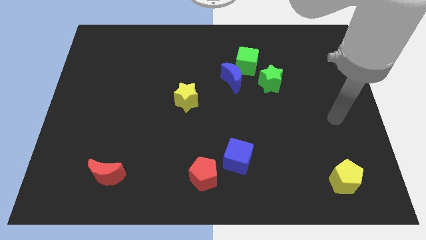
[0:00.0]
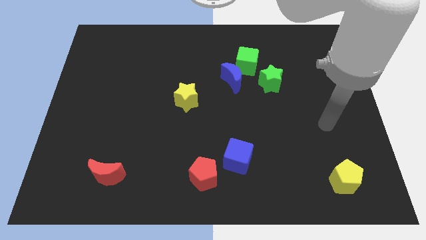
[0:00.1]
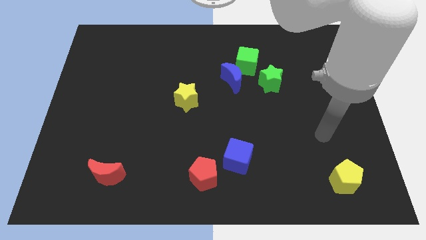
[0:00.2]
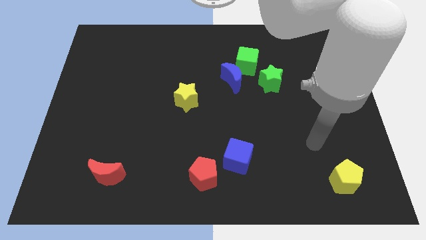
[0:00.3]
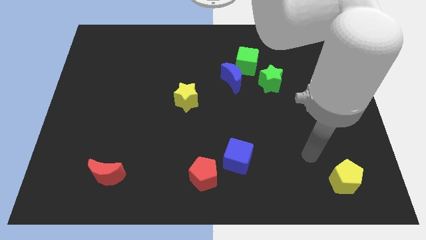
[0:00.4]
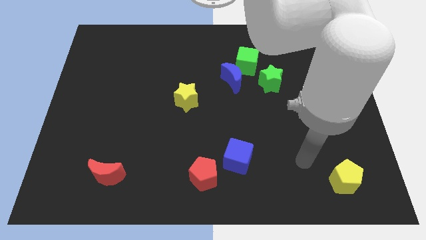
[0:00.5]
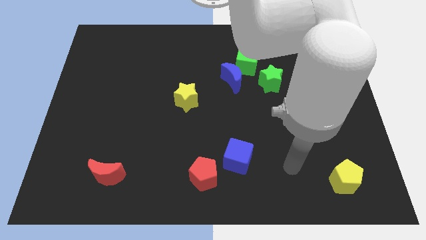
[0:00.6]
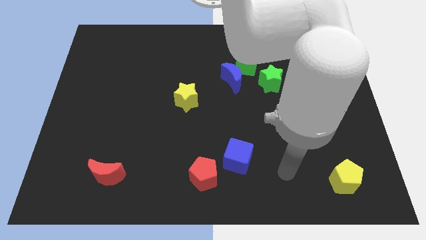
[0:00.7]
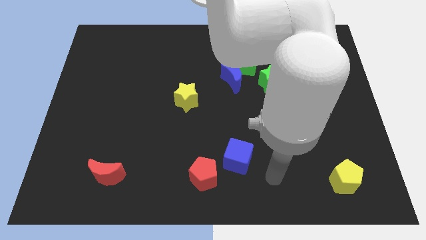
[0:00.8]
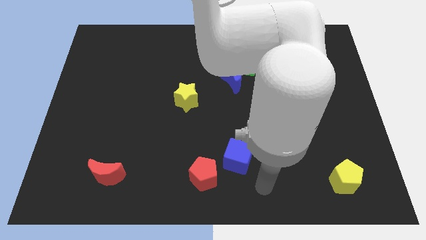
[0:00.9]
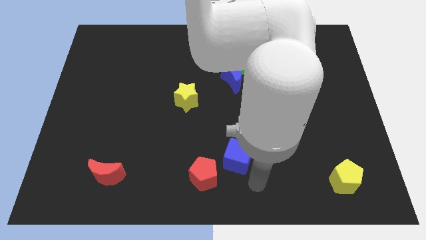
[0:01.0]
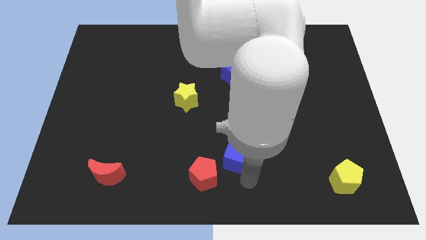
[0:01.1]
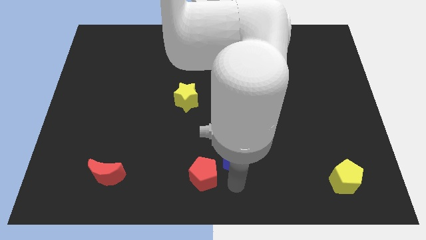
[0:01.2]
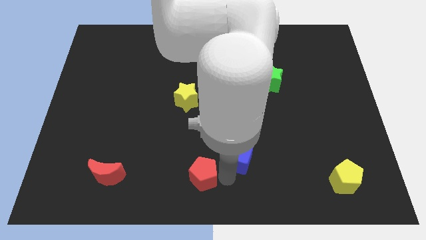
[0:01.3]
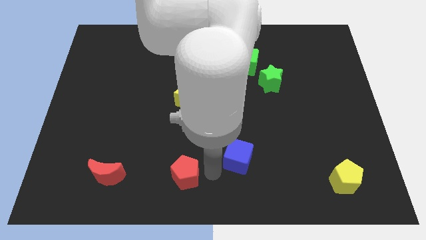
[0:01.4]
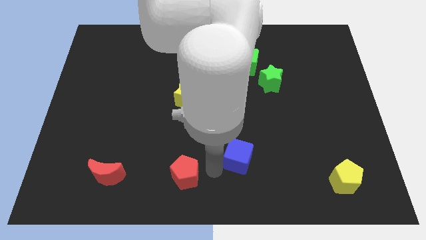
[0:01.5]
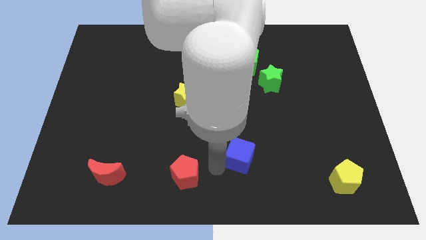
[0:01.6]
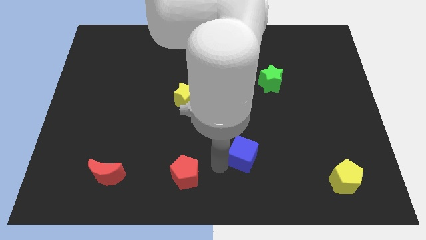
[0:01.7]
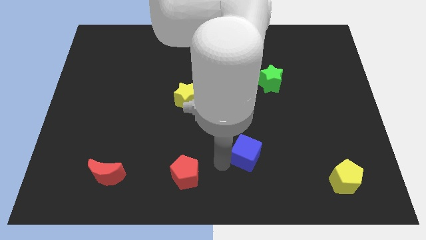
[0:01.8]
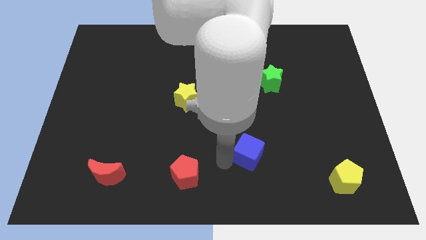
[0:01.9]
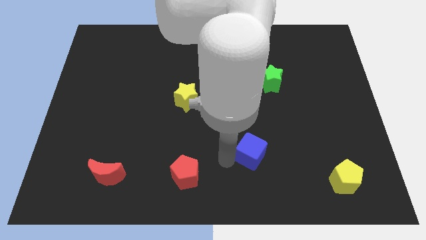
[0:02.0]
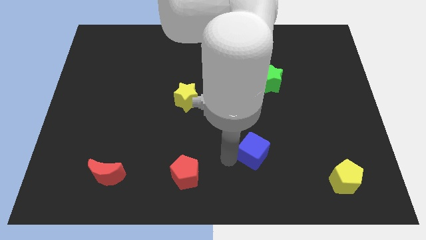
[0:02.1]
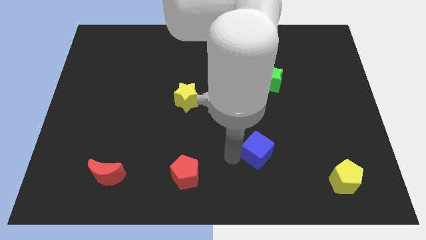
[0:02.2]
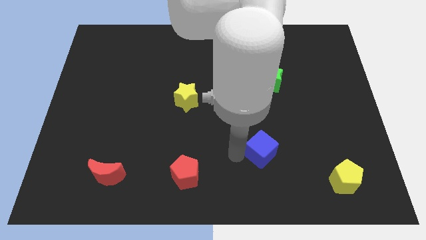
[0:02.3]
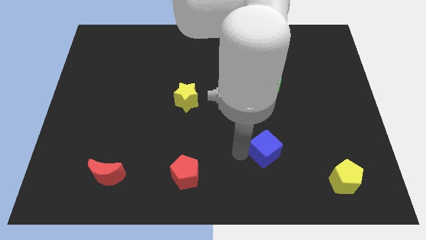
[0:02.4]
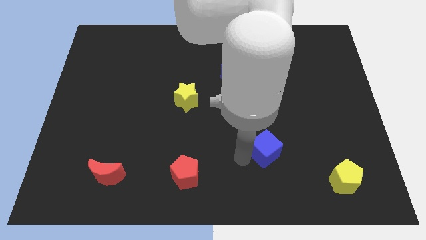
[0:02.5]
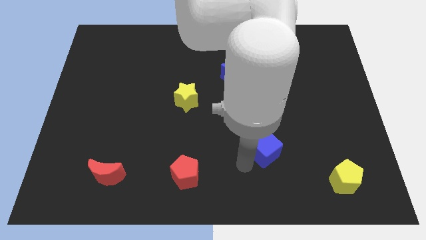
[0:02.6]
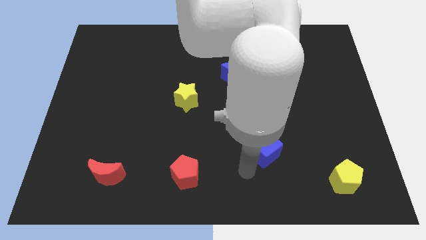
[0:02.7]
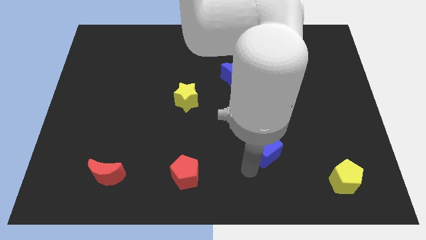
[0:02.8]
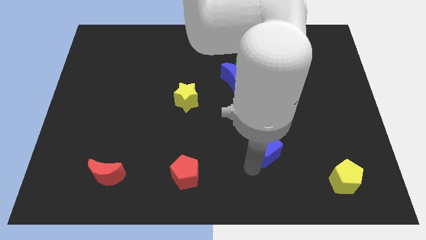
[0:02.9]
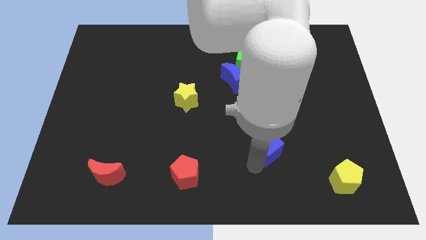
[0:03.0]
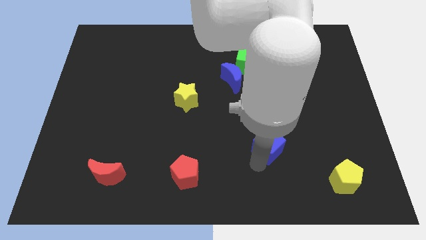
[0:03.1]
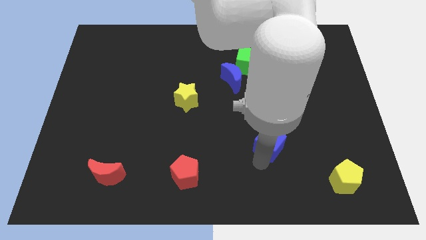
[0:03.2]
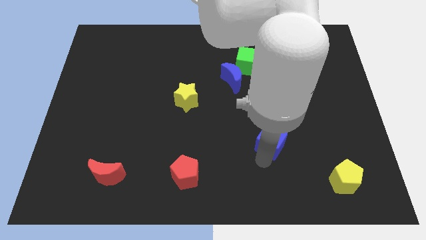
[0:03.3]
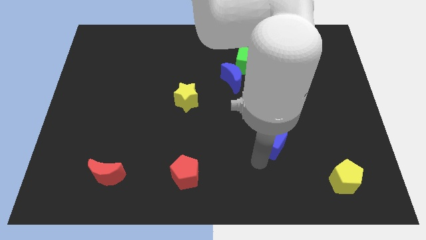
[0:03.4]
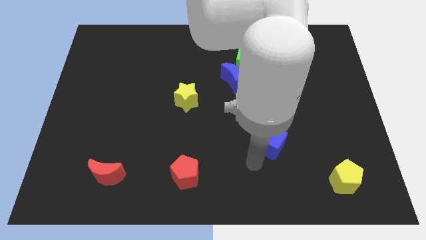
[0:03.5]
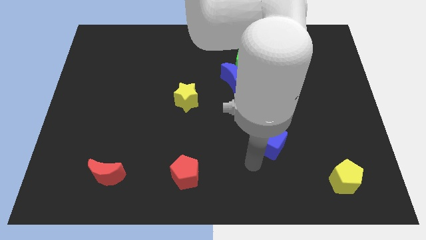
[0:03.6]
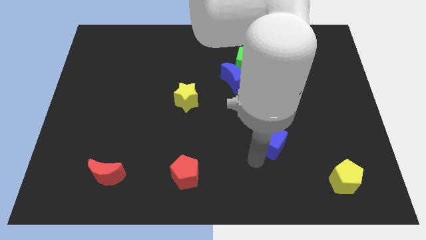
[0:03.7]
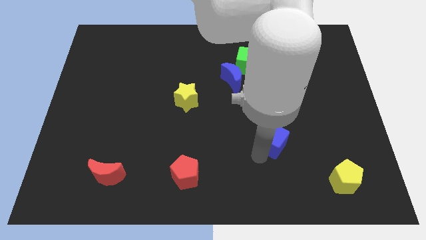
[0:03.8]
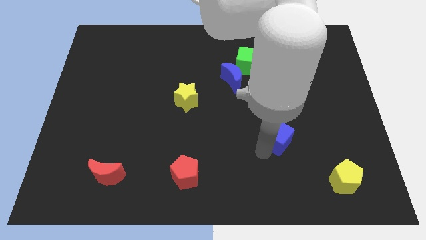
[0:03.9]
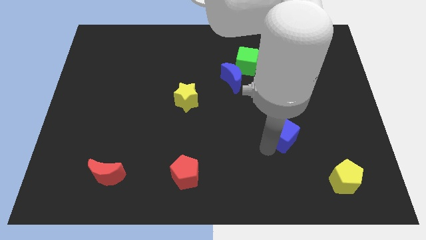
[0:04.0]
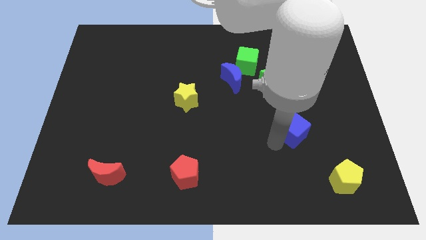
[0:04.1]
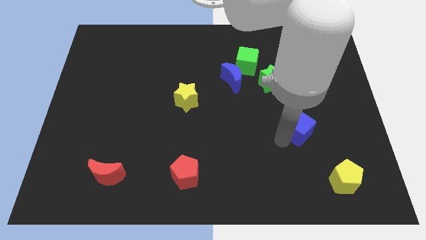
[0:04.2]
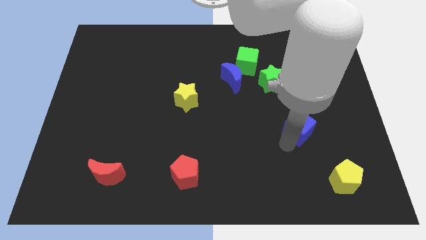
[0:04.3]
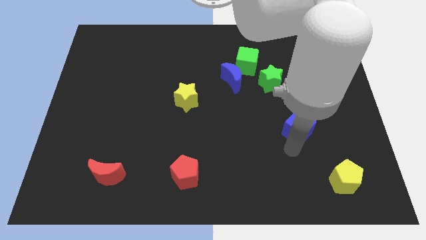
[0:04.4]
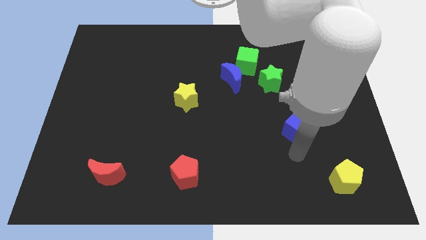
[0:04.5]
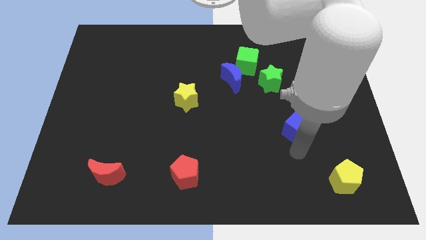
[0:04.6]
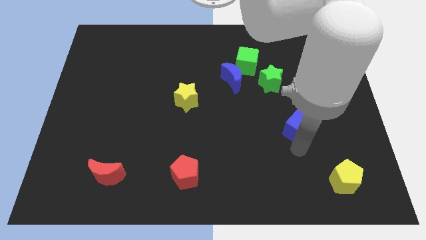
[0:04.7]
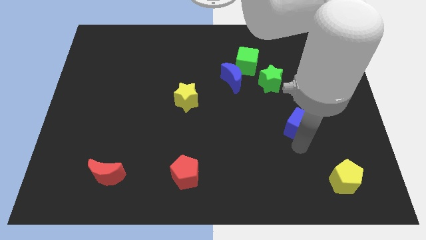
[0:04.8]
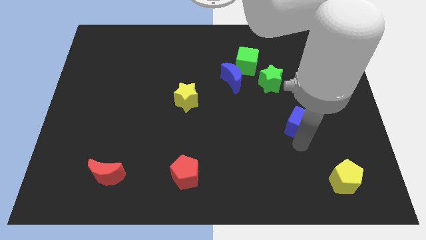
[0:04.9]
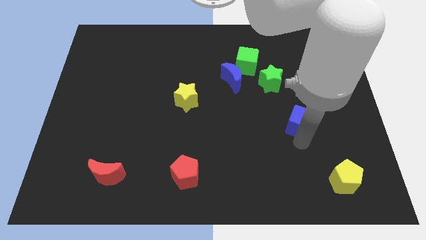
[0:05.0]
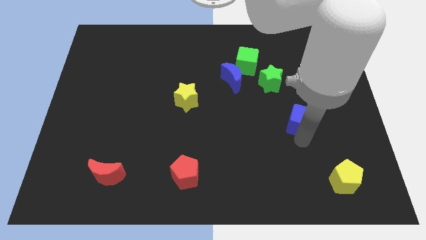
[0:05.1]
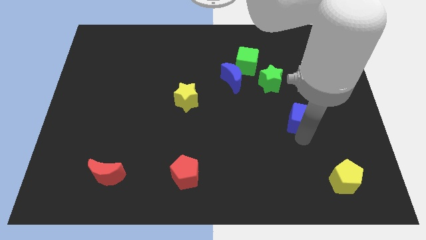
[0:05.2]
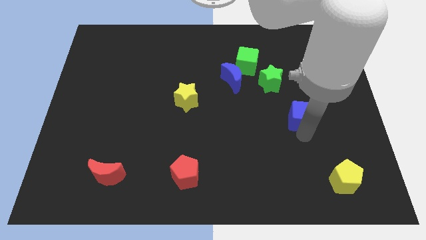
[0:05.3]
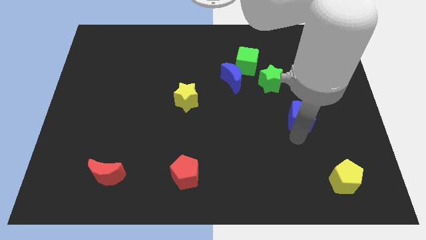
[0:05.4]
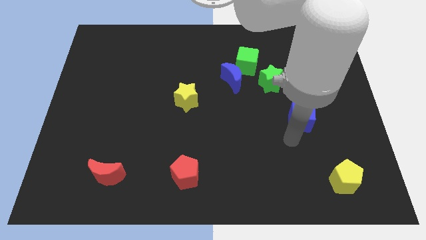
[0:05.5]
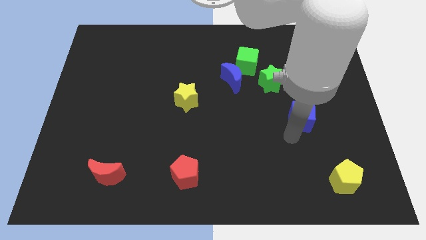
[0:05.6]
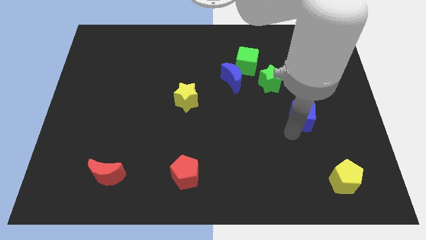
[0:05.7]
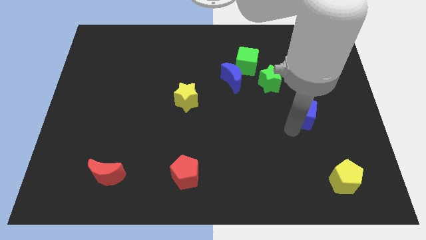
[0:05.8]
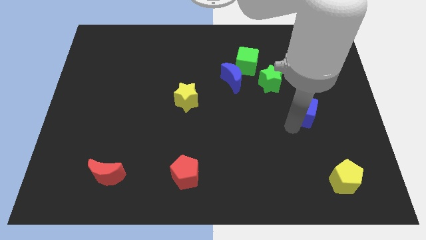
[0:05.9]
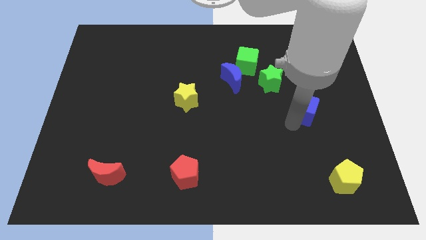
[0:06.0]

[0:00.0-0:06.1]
move the blue cube upwards and right diagonally

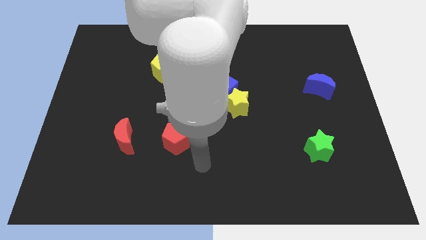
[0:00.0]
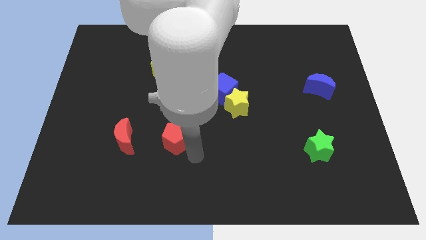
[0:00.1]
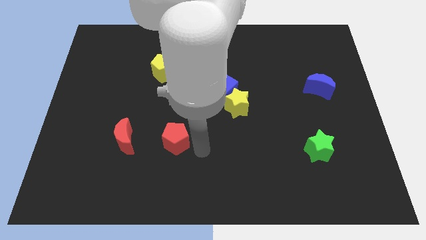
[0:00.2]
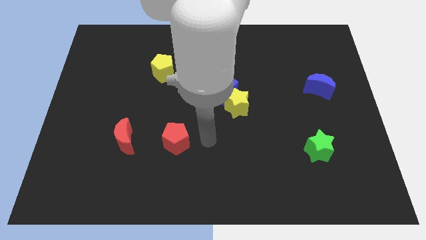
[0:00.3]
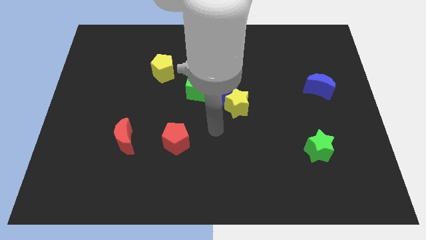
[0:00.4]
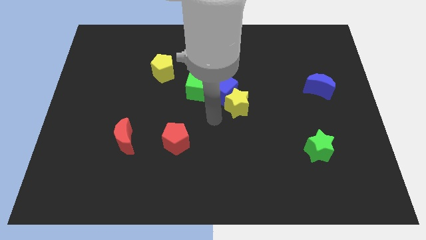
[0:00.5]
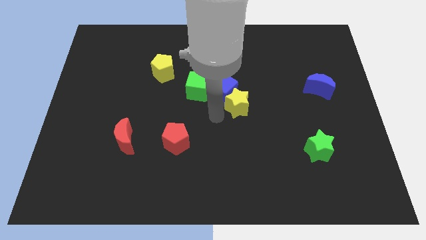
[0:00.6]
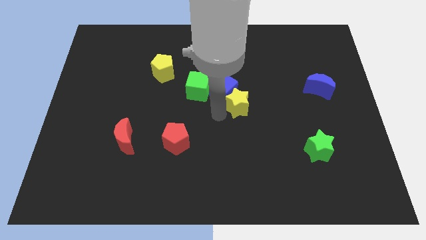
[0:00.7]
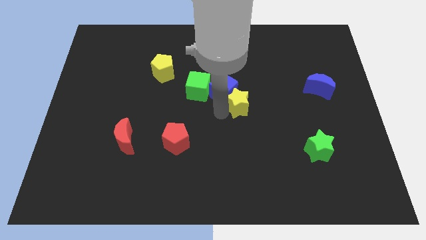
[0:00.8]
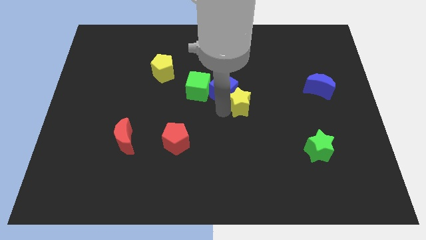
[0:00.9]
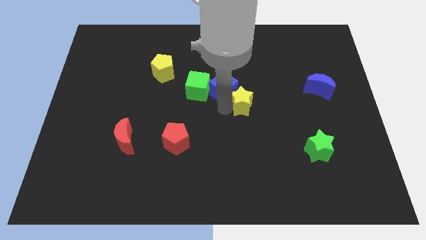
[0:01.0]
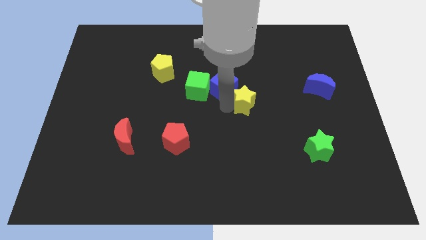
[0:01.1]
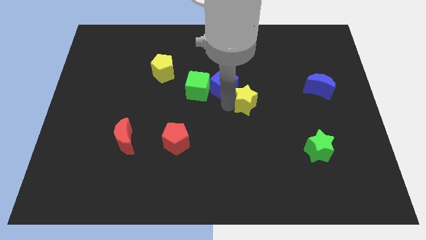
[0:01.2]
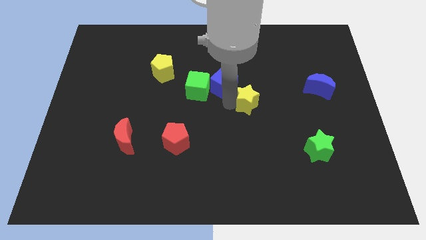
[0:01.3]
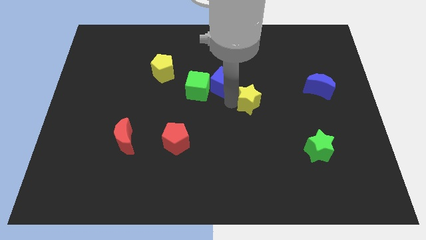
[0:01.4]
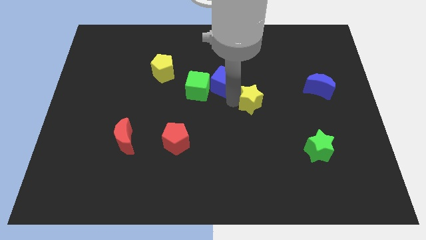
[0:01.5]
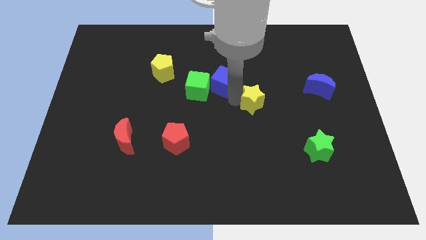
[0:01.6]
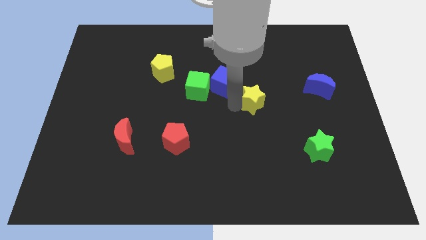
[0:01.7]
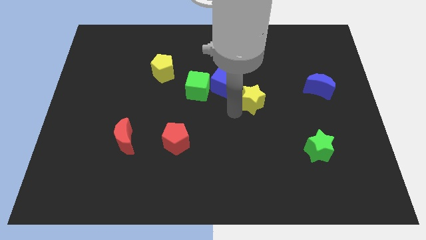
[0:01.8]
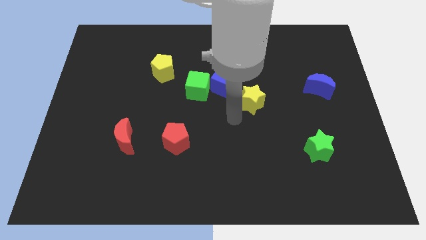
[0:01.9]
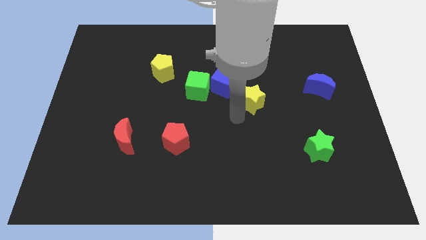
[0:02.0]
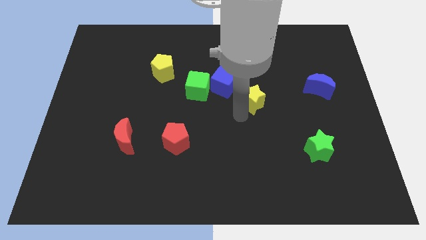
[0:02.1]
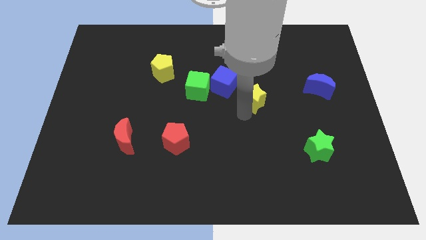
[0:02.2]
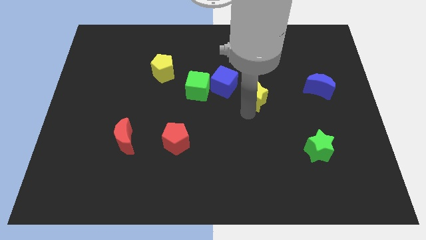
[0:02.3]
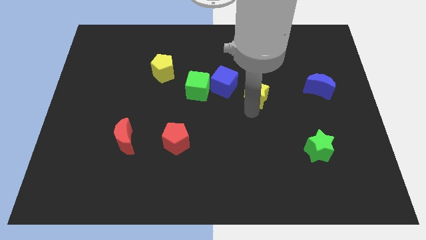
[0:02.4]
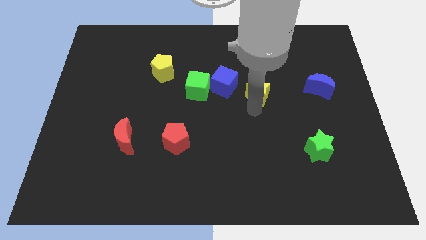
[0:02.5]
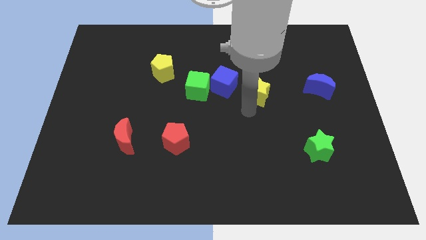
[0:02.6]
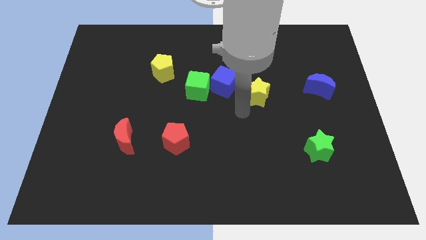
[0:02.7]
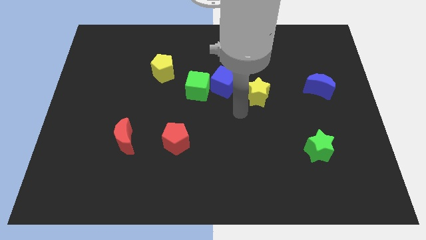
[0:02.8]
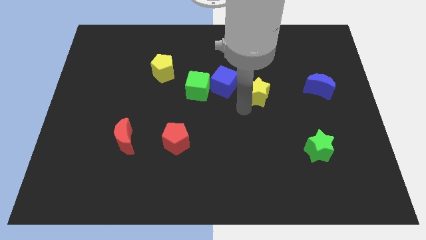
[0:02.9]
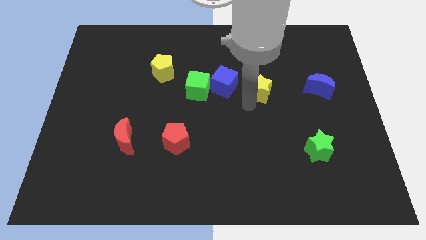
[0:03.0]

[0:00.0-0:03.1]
slide the yellow star somewhat upwards and to the right diagonally
